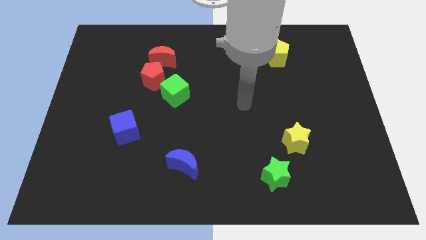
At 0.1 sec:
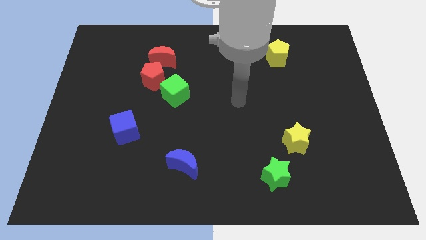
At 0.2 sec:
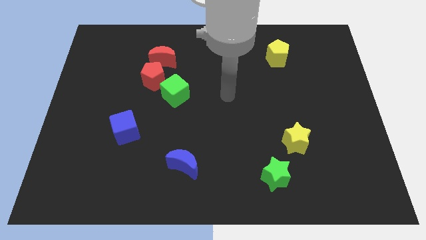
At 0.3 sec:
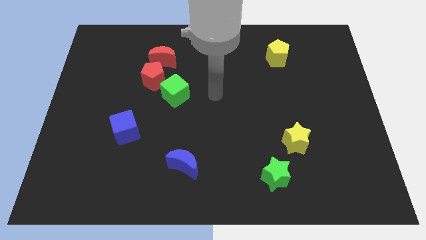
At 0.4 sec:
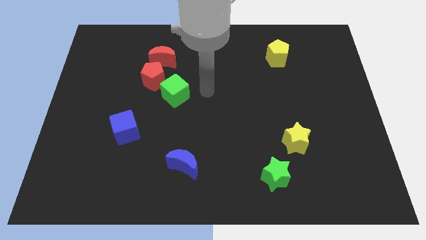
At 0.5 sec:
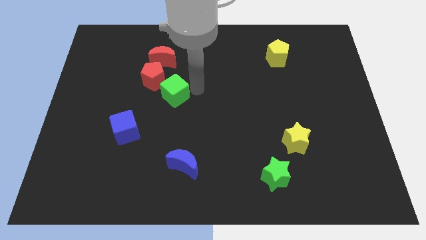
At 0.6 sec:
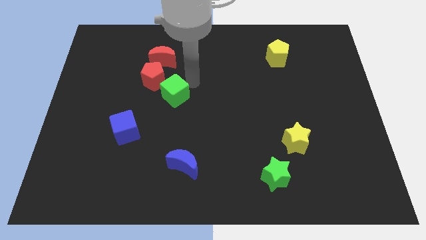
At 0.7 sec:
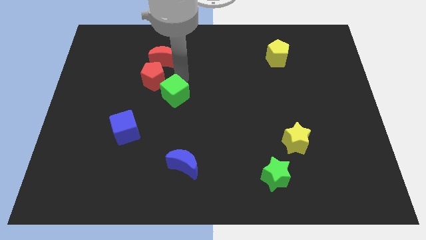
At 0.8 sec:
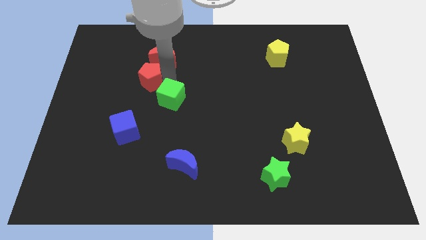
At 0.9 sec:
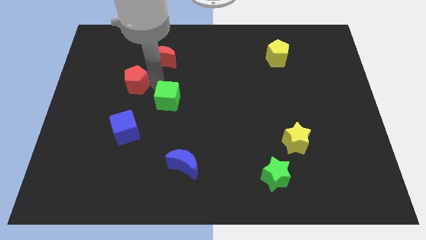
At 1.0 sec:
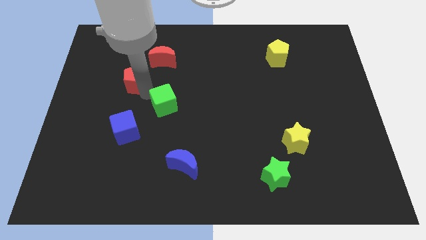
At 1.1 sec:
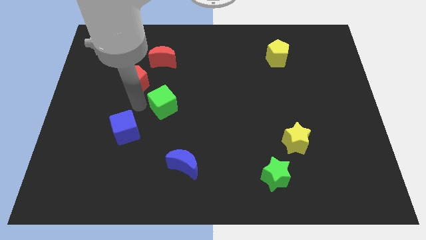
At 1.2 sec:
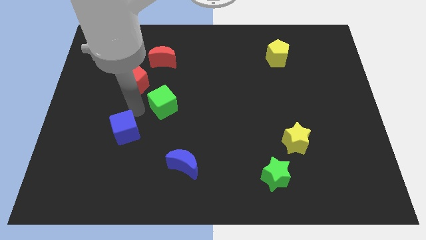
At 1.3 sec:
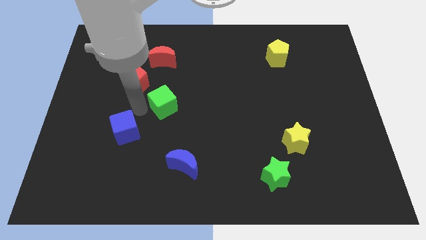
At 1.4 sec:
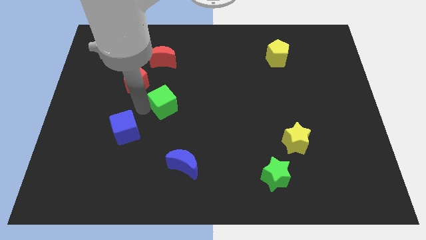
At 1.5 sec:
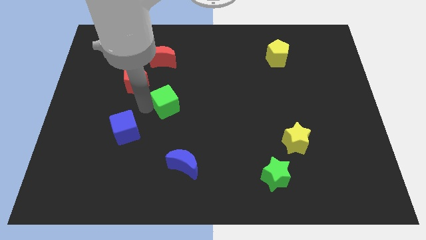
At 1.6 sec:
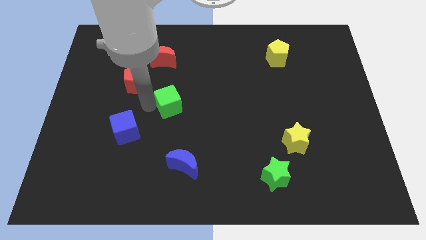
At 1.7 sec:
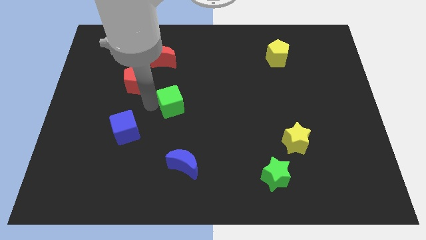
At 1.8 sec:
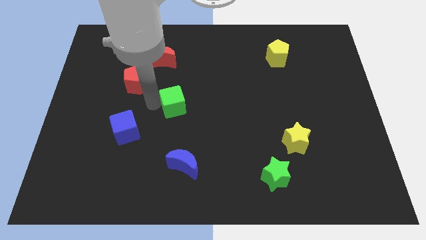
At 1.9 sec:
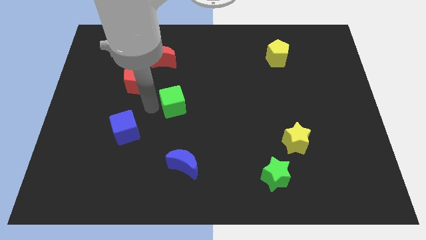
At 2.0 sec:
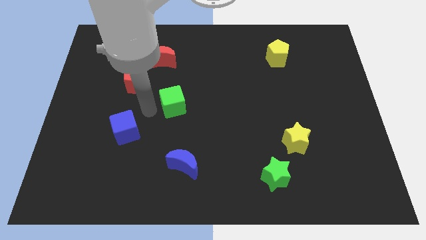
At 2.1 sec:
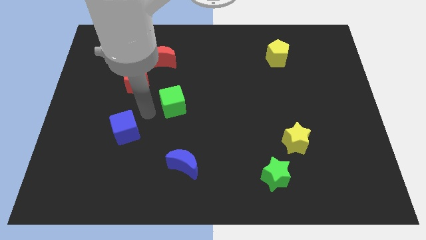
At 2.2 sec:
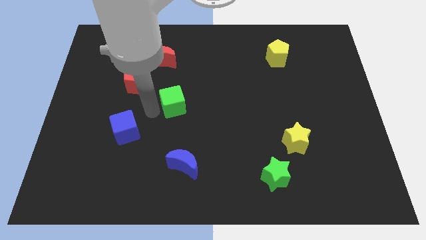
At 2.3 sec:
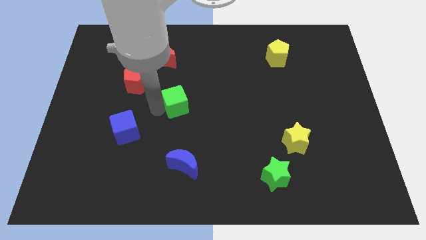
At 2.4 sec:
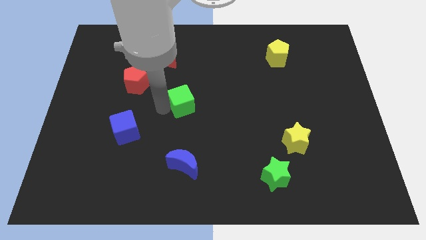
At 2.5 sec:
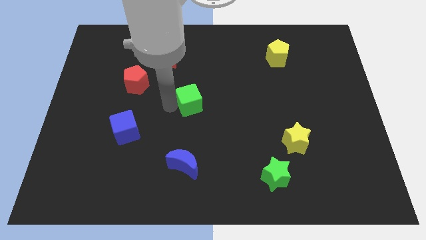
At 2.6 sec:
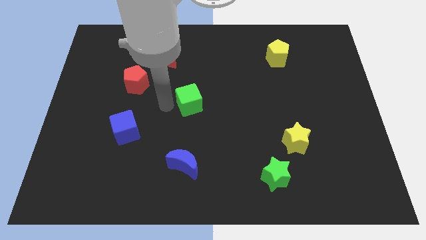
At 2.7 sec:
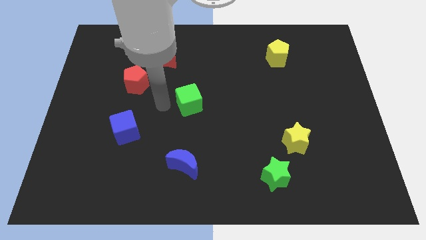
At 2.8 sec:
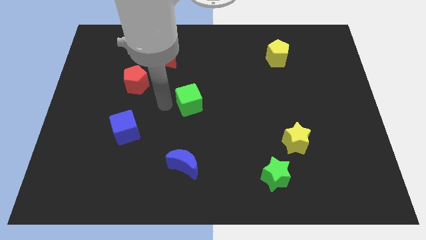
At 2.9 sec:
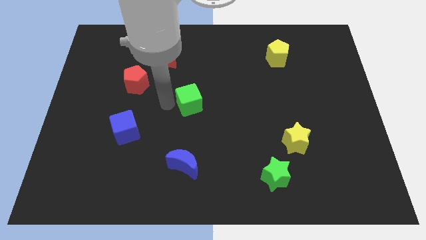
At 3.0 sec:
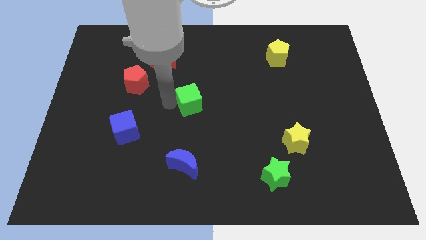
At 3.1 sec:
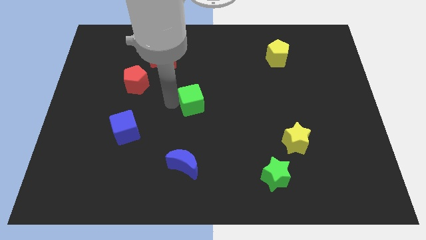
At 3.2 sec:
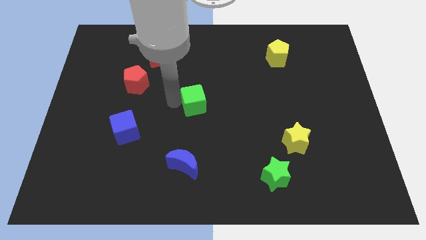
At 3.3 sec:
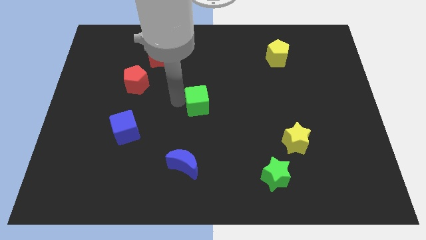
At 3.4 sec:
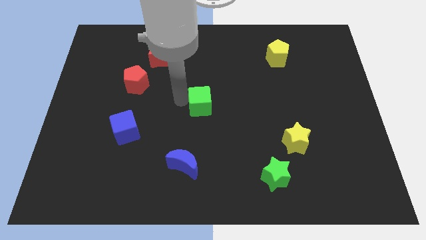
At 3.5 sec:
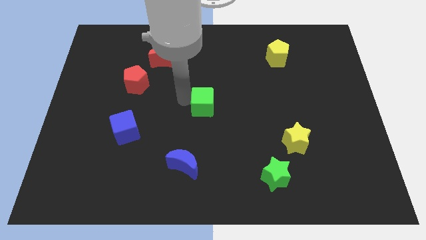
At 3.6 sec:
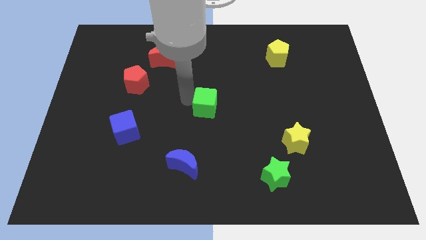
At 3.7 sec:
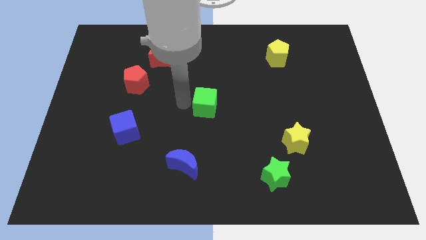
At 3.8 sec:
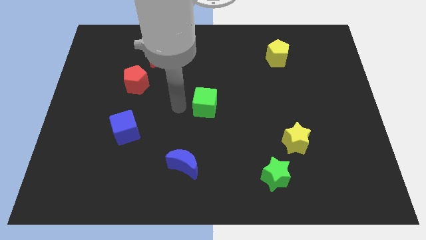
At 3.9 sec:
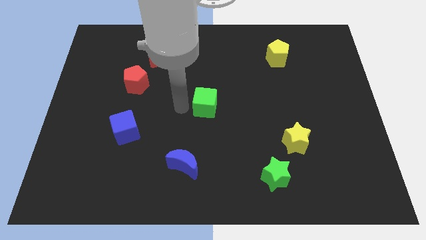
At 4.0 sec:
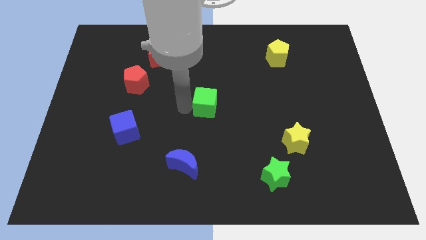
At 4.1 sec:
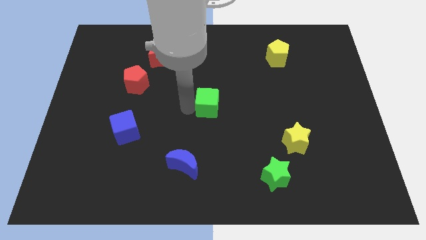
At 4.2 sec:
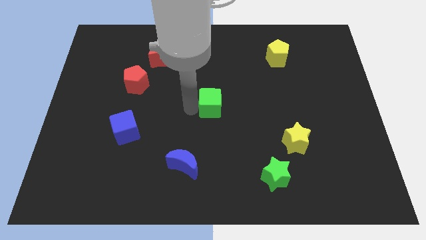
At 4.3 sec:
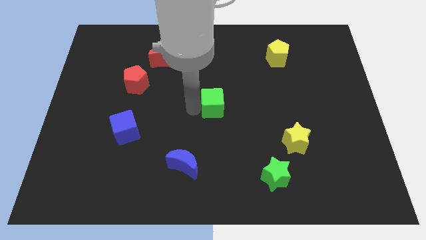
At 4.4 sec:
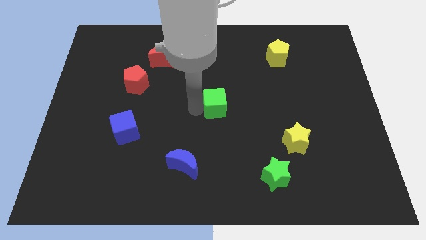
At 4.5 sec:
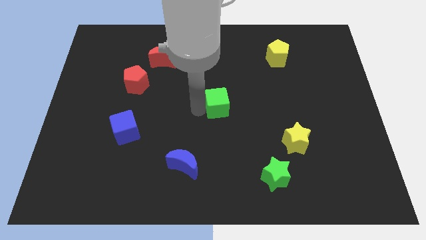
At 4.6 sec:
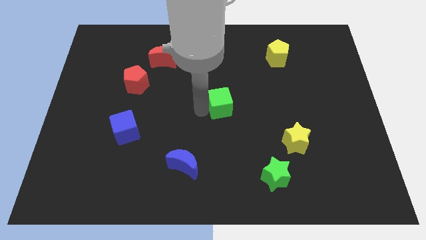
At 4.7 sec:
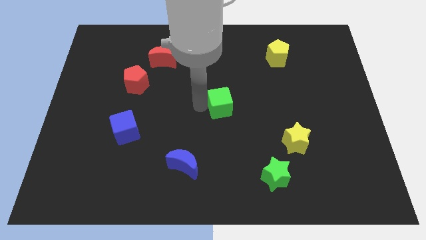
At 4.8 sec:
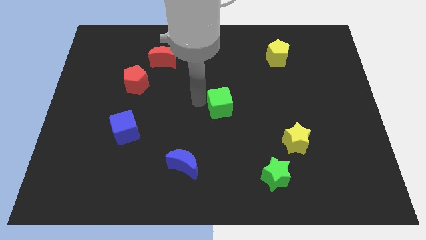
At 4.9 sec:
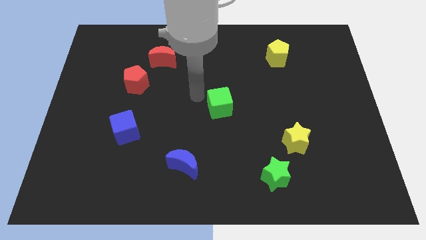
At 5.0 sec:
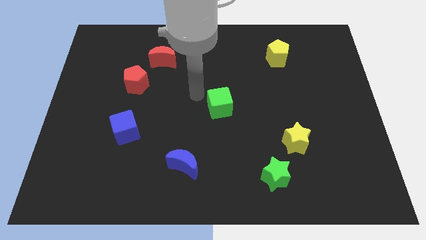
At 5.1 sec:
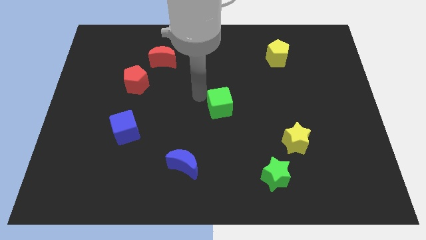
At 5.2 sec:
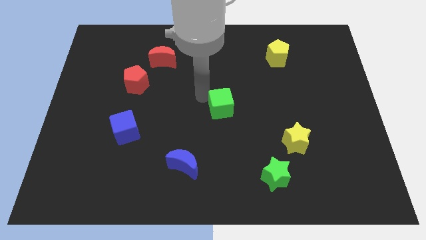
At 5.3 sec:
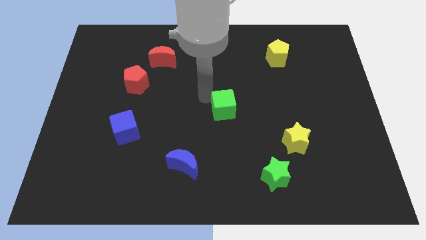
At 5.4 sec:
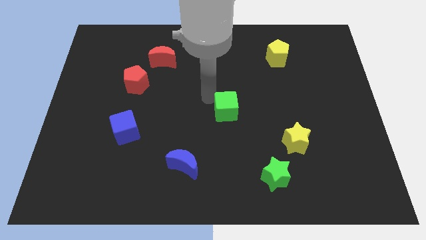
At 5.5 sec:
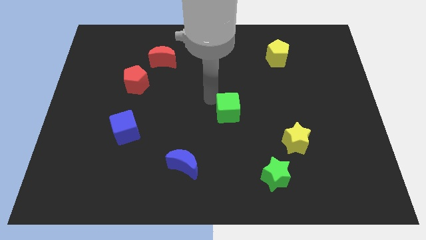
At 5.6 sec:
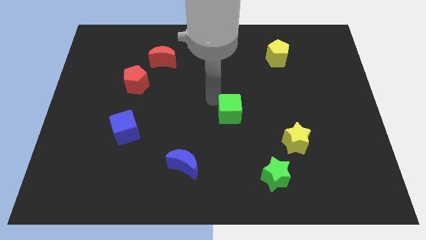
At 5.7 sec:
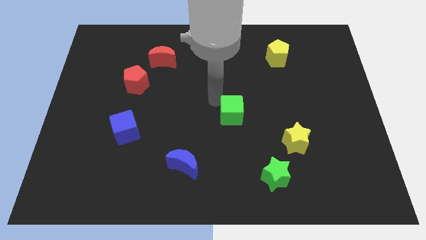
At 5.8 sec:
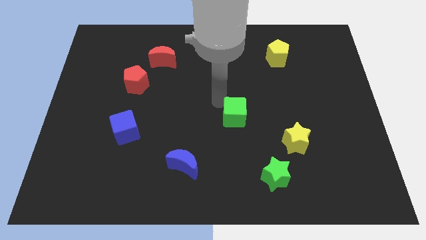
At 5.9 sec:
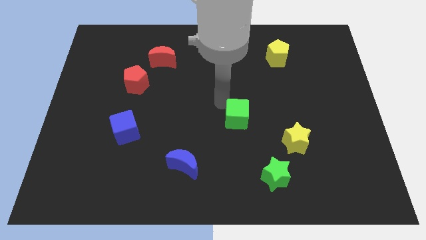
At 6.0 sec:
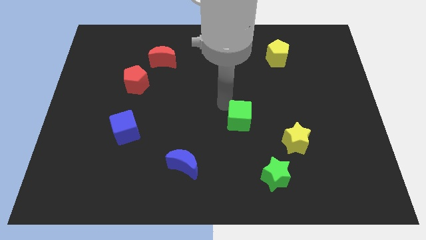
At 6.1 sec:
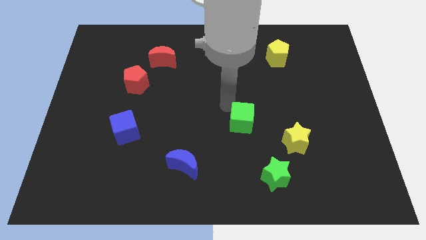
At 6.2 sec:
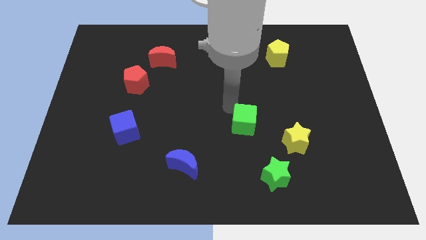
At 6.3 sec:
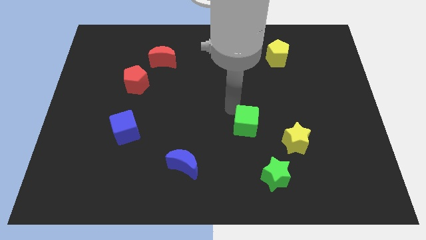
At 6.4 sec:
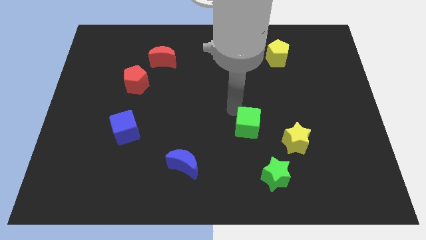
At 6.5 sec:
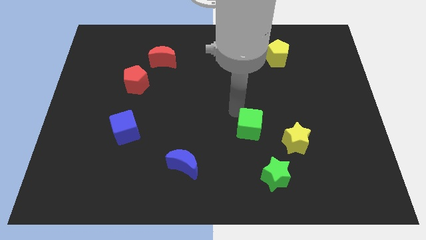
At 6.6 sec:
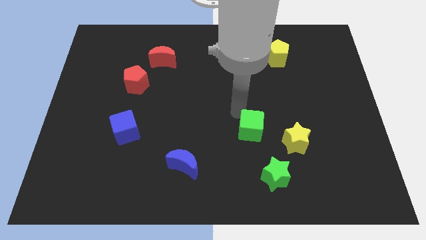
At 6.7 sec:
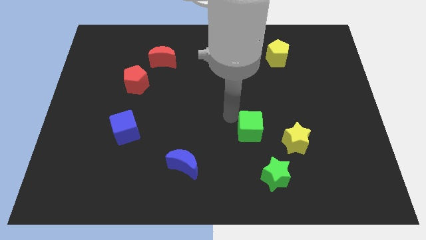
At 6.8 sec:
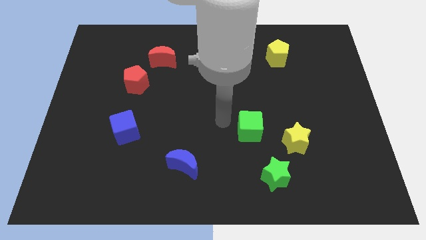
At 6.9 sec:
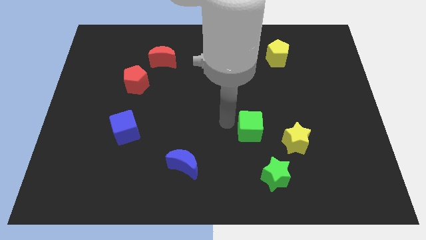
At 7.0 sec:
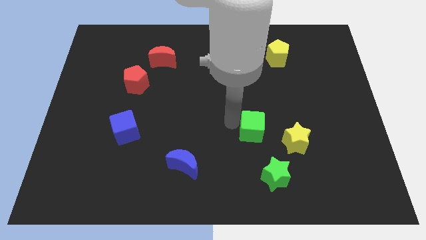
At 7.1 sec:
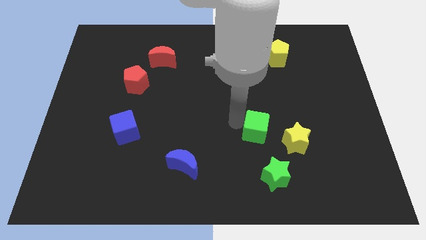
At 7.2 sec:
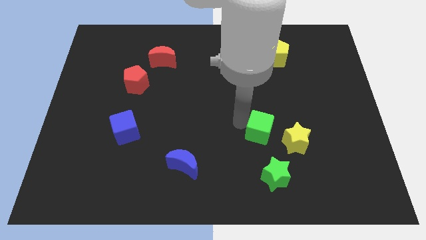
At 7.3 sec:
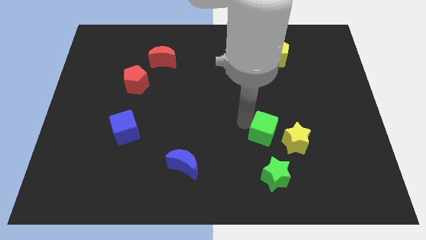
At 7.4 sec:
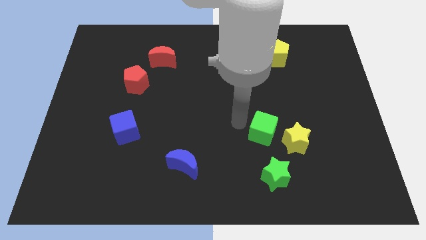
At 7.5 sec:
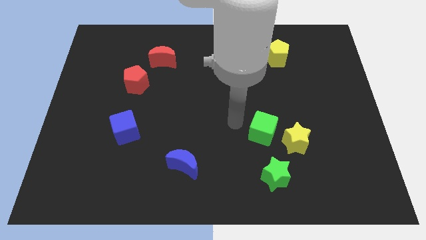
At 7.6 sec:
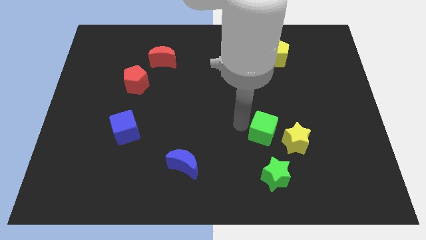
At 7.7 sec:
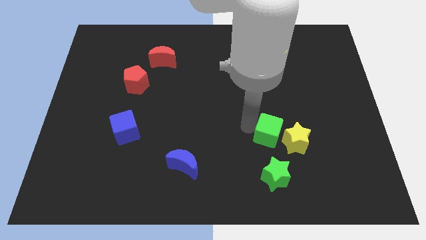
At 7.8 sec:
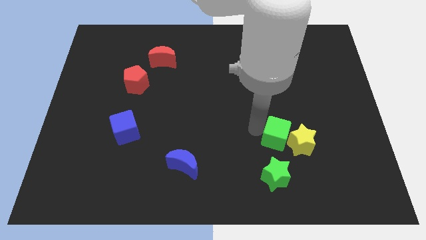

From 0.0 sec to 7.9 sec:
push the green cube close to the yellow star
